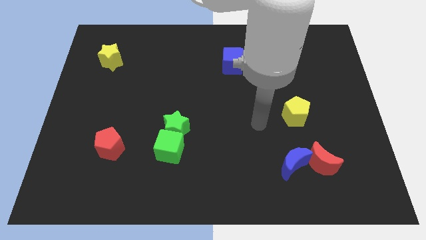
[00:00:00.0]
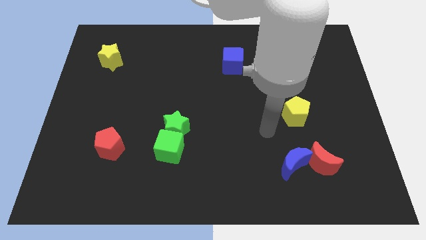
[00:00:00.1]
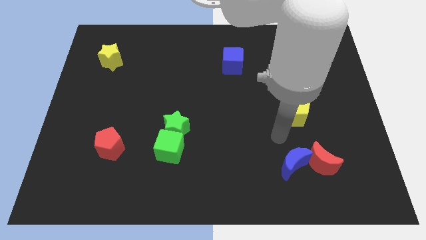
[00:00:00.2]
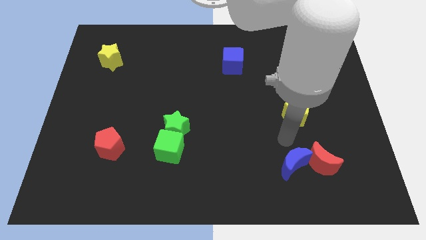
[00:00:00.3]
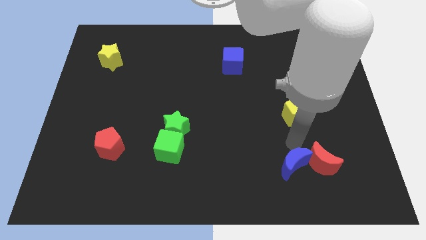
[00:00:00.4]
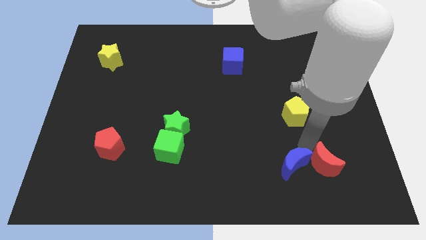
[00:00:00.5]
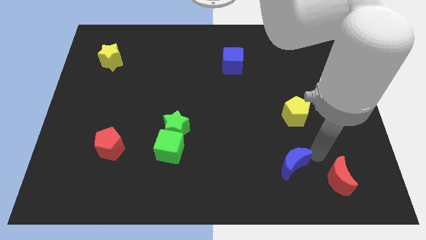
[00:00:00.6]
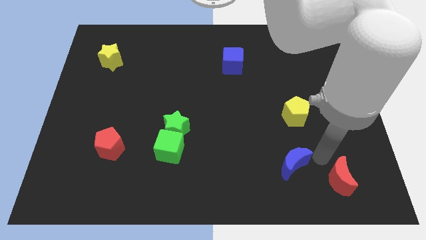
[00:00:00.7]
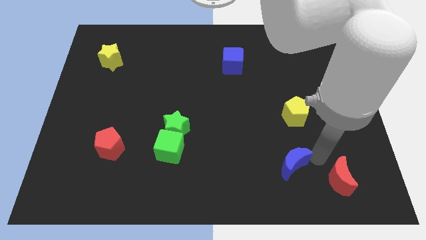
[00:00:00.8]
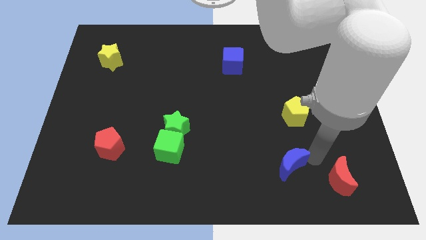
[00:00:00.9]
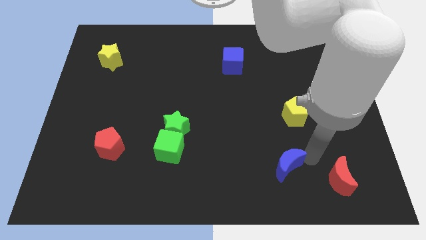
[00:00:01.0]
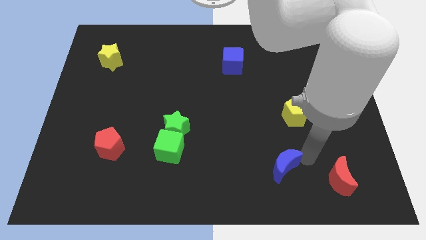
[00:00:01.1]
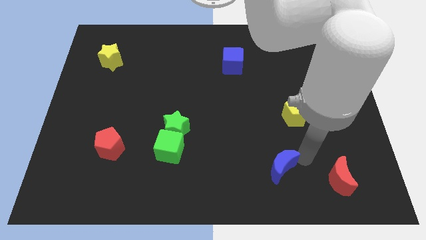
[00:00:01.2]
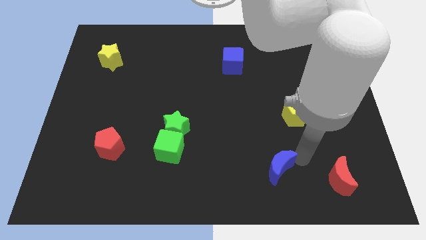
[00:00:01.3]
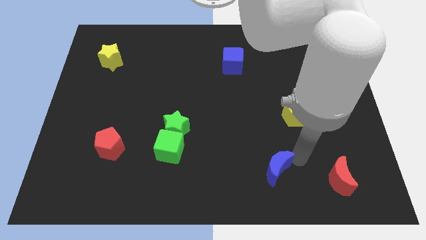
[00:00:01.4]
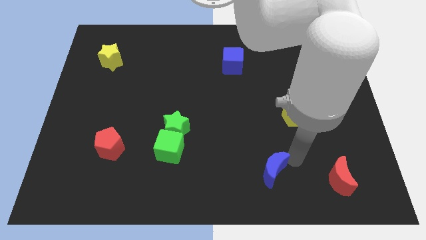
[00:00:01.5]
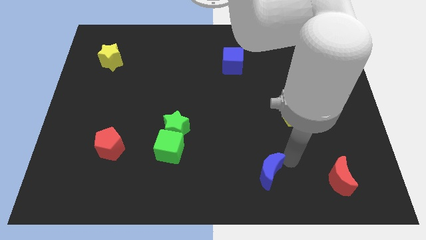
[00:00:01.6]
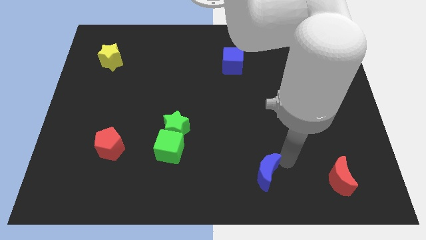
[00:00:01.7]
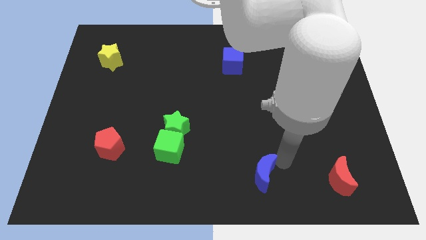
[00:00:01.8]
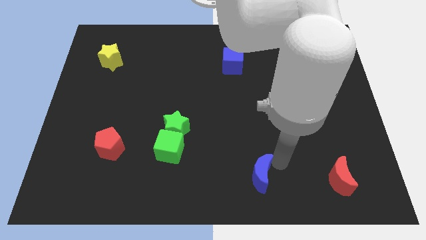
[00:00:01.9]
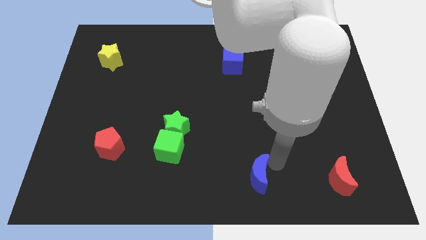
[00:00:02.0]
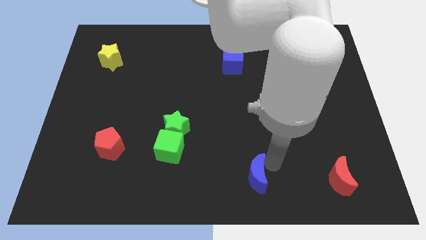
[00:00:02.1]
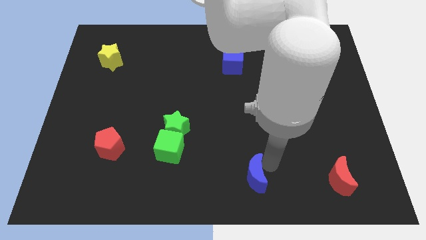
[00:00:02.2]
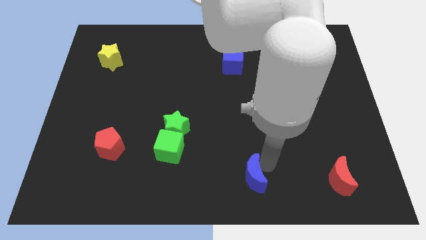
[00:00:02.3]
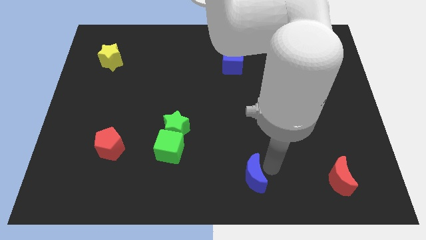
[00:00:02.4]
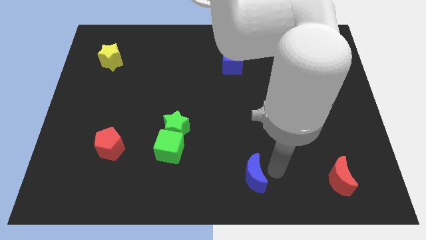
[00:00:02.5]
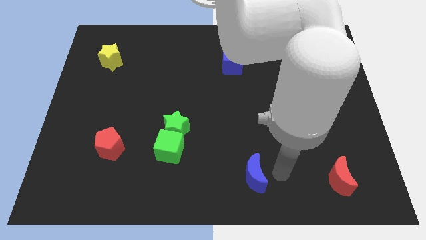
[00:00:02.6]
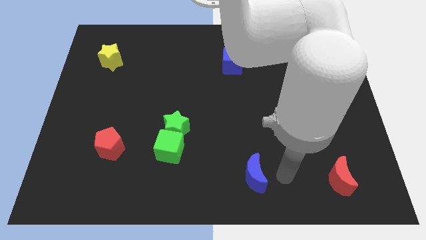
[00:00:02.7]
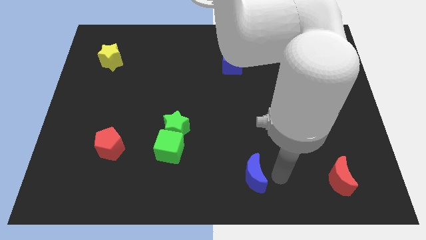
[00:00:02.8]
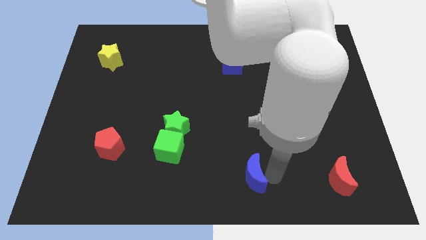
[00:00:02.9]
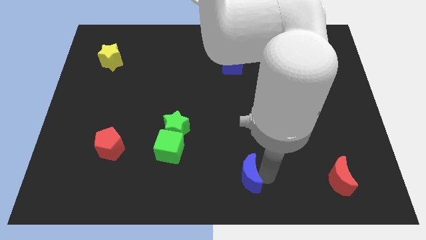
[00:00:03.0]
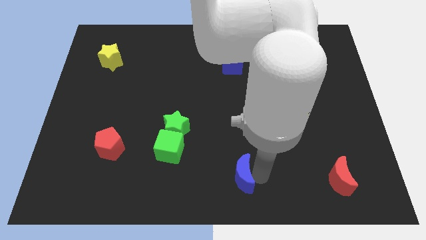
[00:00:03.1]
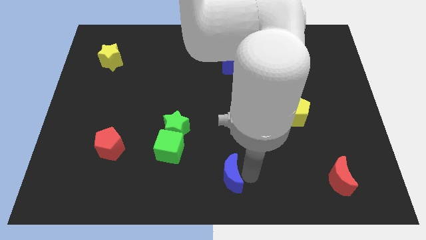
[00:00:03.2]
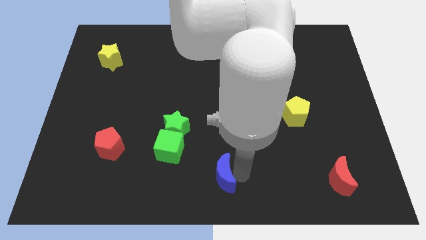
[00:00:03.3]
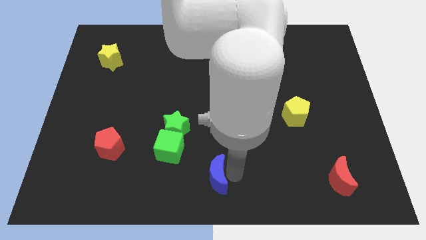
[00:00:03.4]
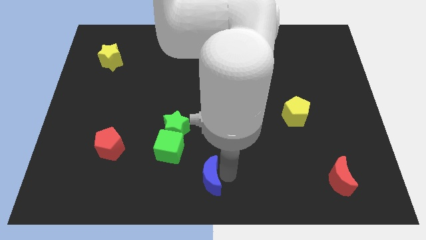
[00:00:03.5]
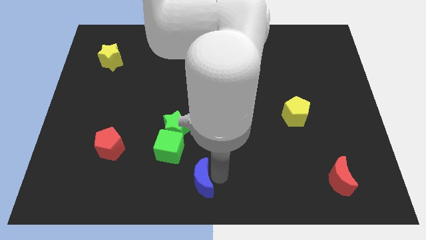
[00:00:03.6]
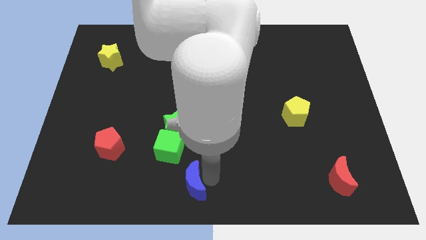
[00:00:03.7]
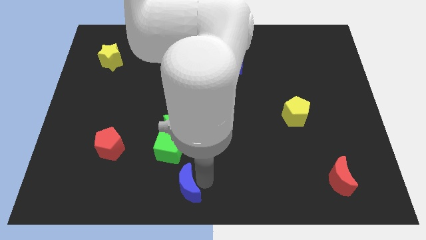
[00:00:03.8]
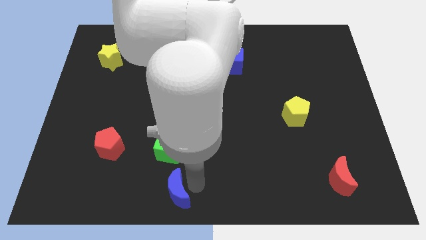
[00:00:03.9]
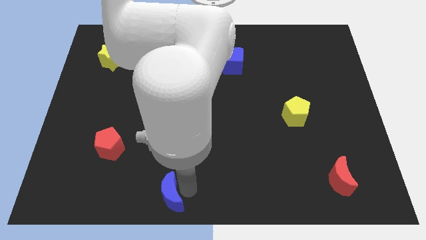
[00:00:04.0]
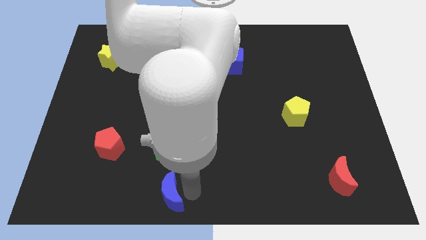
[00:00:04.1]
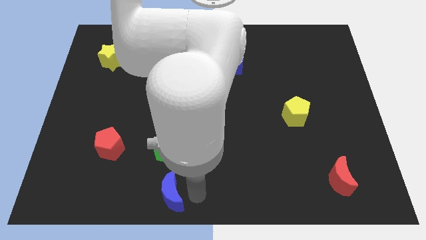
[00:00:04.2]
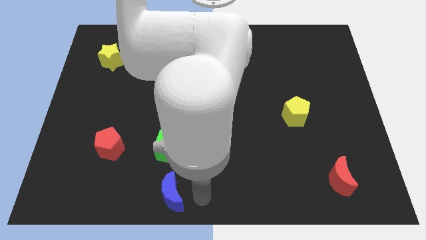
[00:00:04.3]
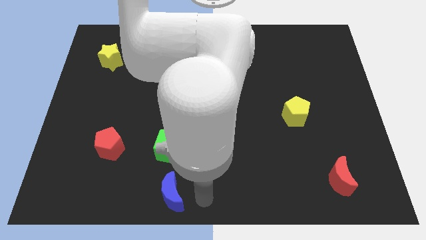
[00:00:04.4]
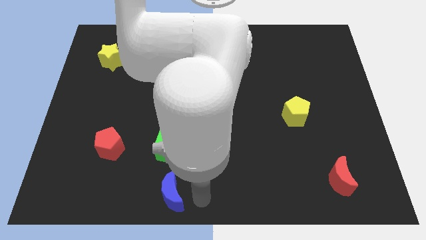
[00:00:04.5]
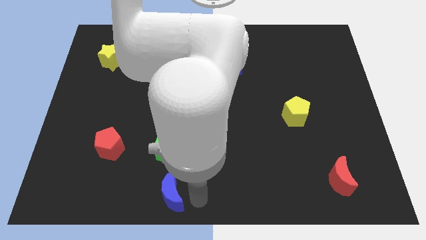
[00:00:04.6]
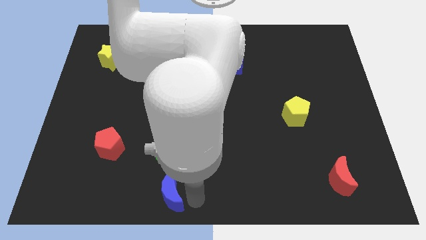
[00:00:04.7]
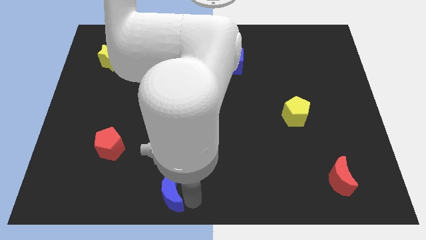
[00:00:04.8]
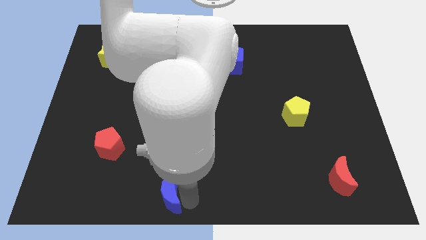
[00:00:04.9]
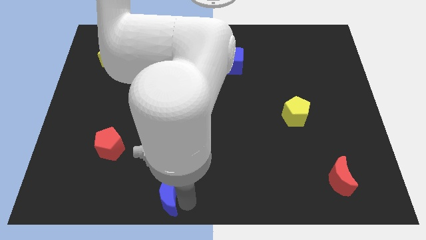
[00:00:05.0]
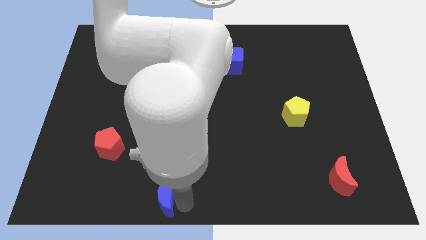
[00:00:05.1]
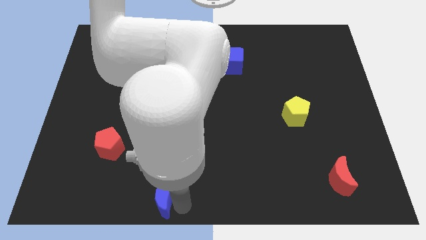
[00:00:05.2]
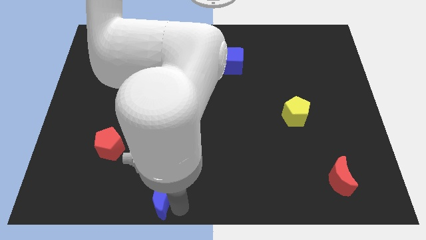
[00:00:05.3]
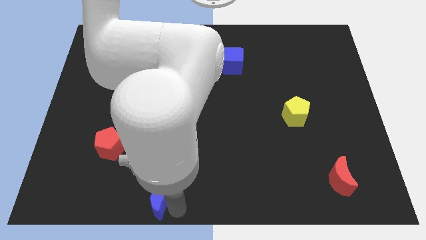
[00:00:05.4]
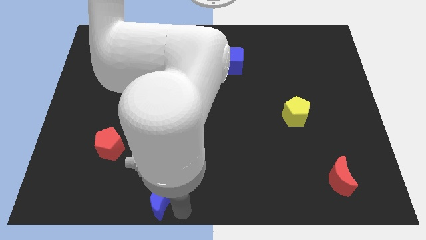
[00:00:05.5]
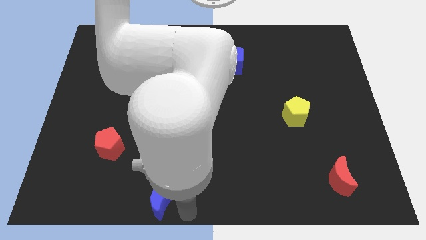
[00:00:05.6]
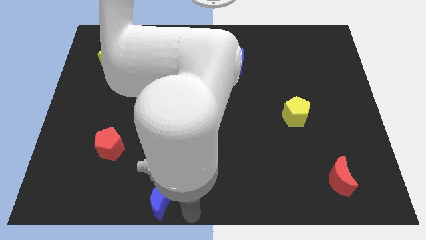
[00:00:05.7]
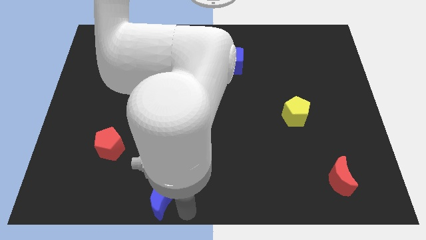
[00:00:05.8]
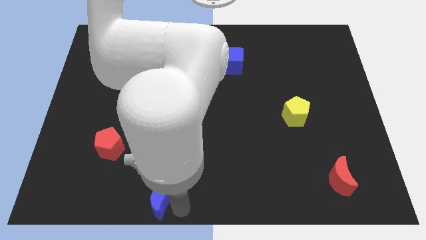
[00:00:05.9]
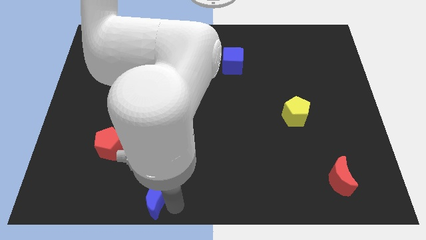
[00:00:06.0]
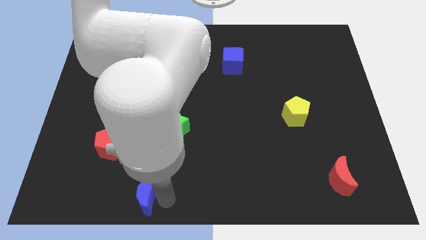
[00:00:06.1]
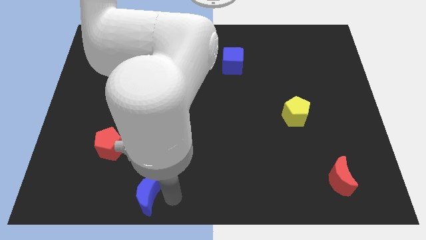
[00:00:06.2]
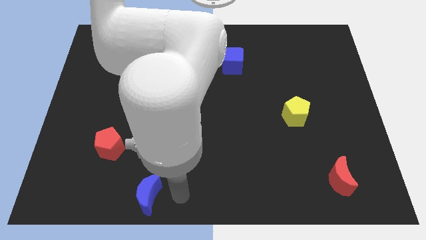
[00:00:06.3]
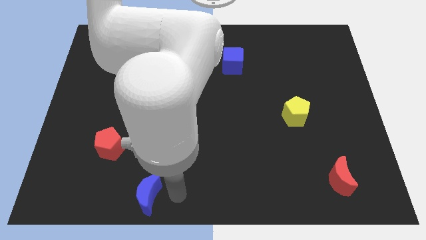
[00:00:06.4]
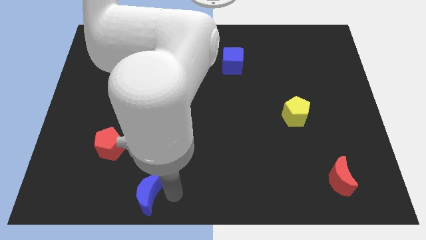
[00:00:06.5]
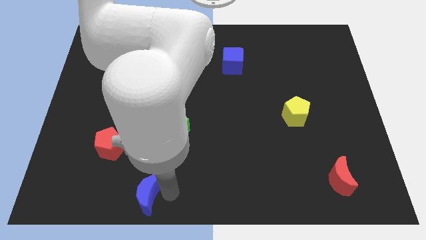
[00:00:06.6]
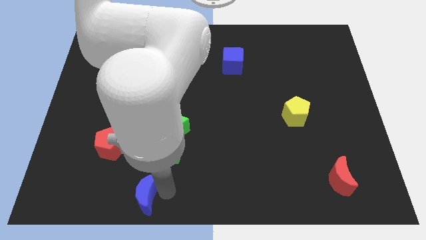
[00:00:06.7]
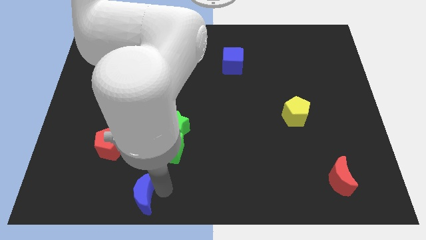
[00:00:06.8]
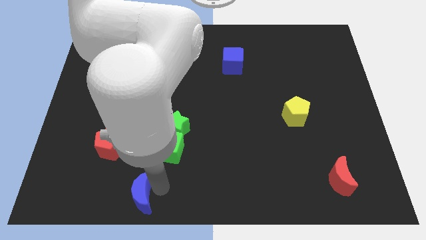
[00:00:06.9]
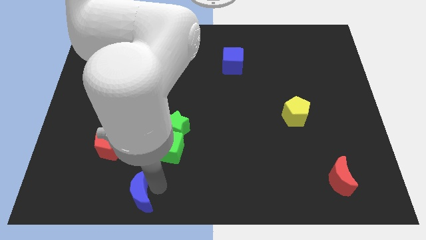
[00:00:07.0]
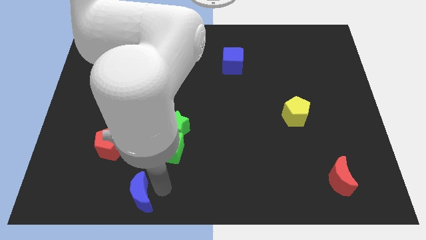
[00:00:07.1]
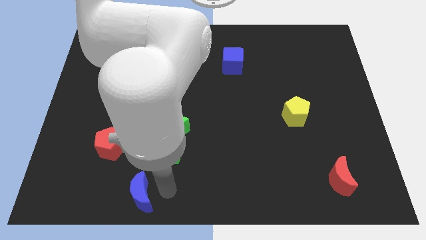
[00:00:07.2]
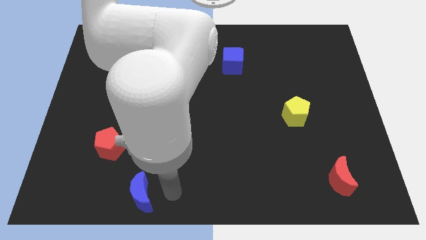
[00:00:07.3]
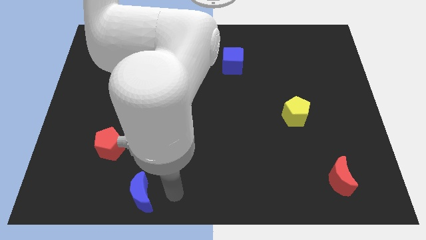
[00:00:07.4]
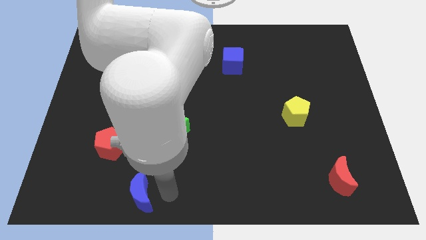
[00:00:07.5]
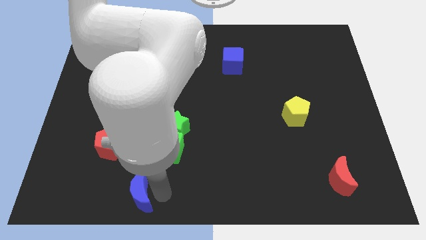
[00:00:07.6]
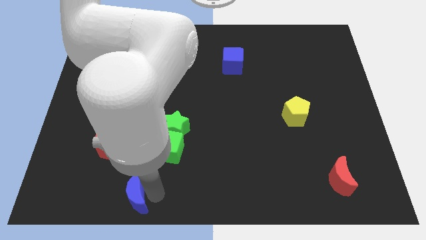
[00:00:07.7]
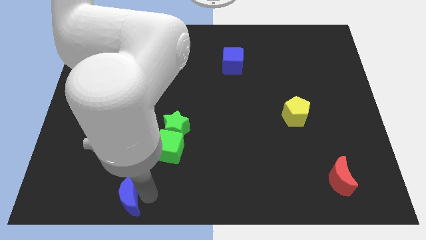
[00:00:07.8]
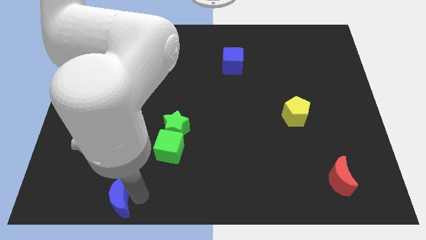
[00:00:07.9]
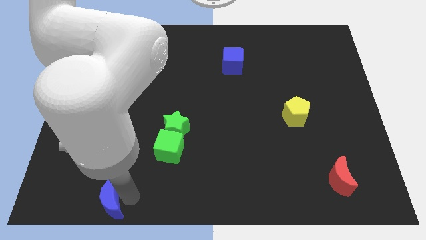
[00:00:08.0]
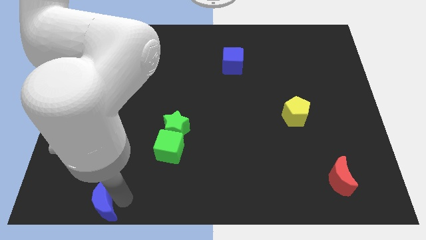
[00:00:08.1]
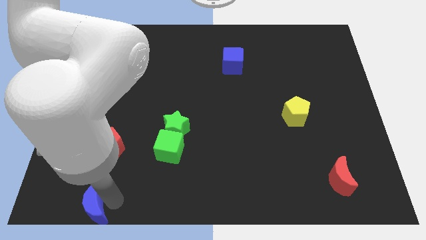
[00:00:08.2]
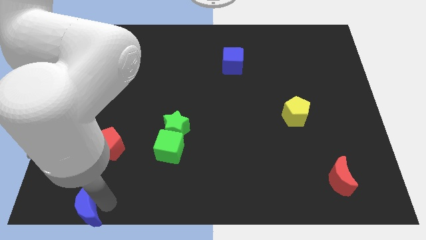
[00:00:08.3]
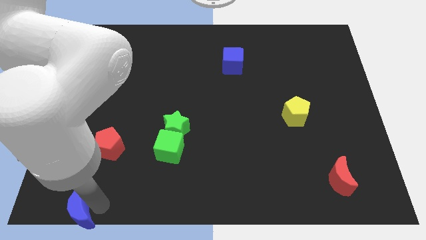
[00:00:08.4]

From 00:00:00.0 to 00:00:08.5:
move the blue moon to the bottom left
